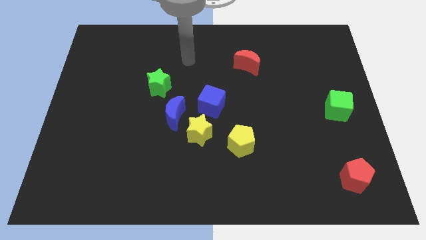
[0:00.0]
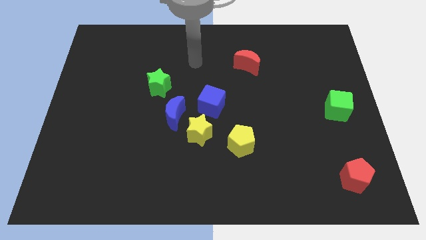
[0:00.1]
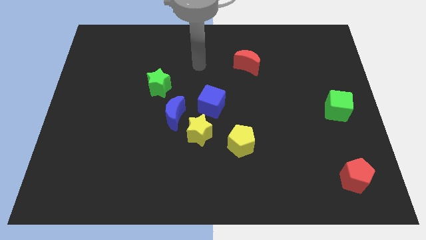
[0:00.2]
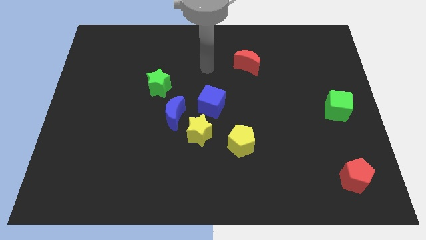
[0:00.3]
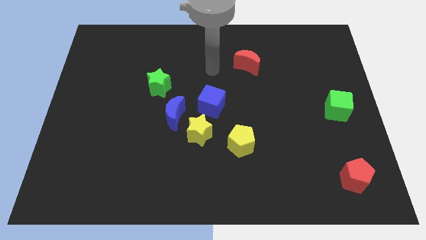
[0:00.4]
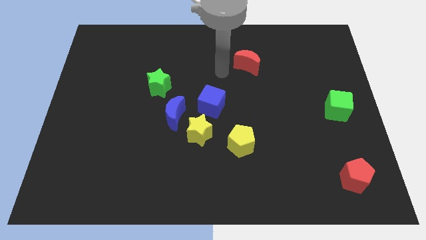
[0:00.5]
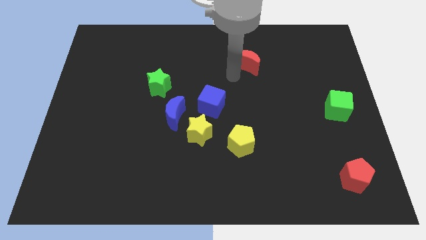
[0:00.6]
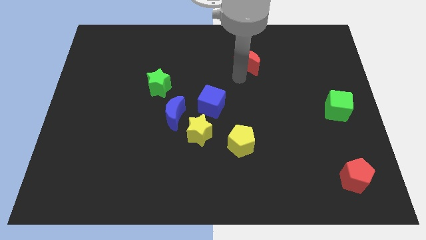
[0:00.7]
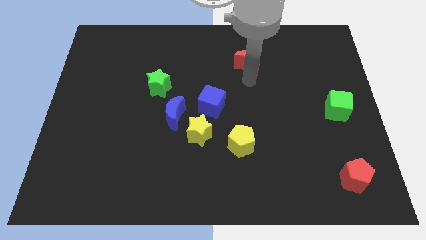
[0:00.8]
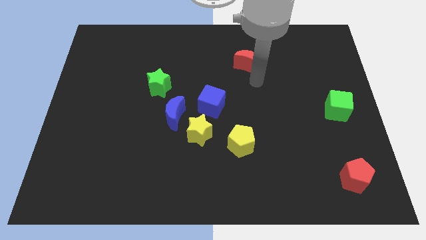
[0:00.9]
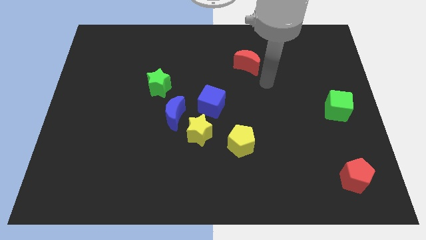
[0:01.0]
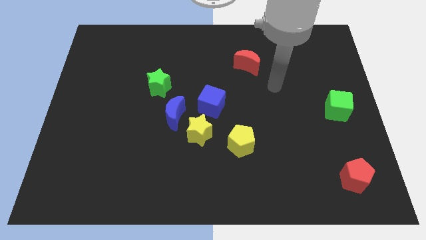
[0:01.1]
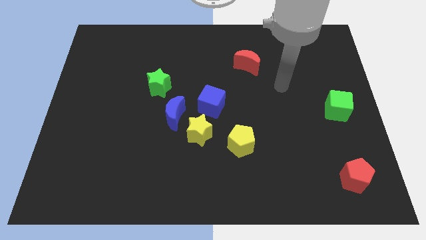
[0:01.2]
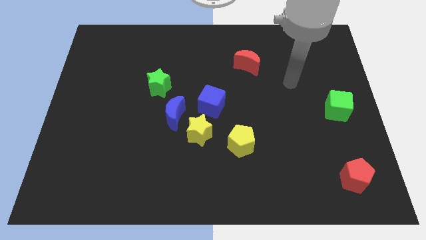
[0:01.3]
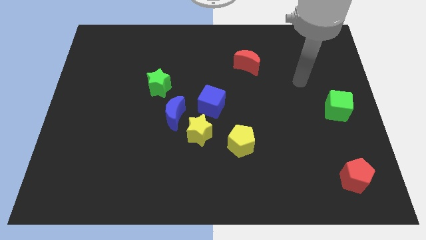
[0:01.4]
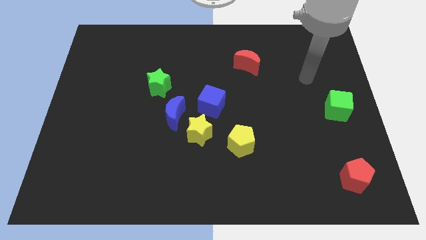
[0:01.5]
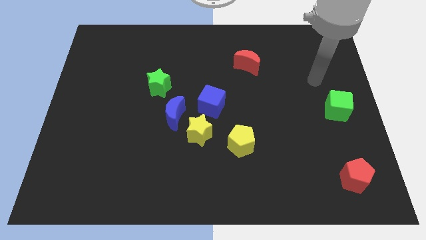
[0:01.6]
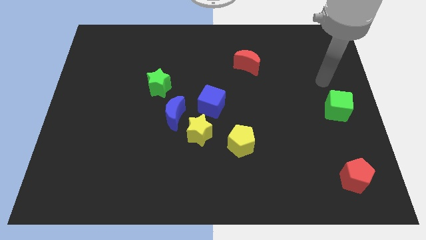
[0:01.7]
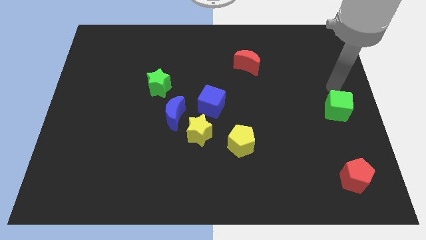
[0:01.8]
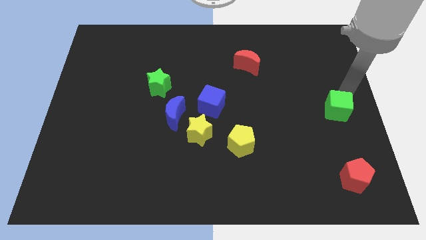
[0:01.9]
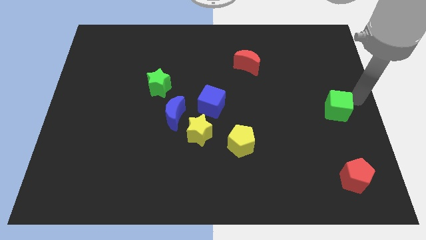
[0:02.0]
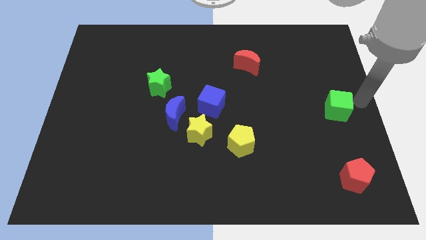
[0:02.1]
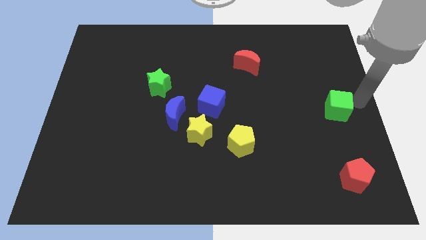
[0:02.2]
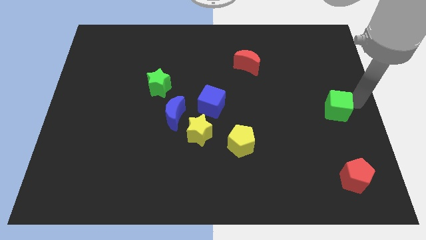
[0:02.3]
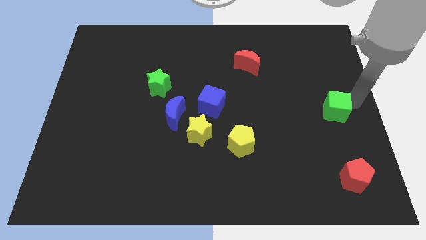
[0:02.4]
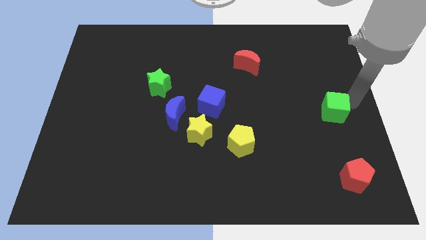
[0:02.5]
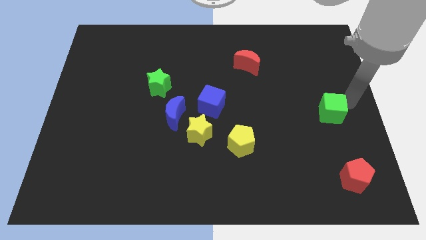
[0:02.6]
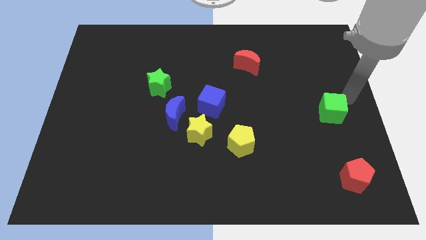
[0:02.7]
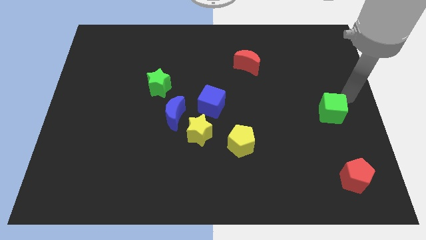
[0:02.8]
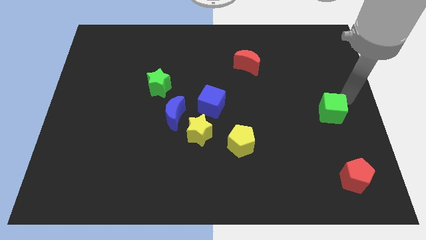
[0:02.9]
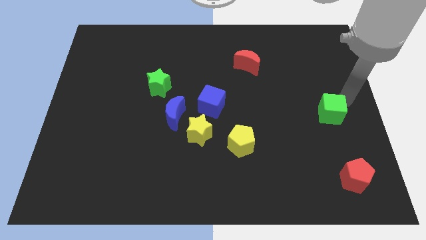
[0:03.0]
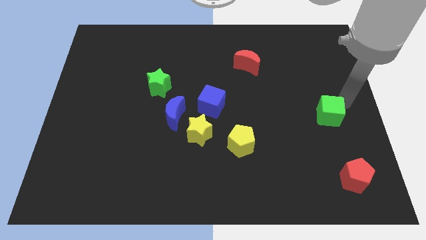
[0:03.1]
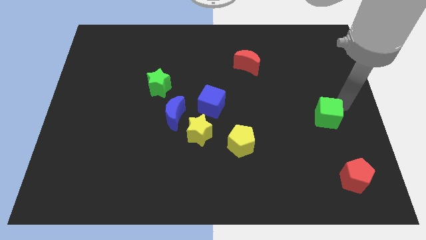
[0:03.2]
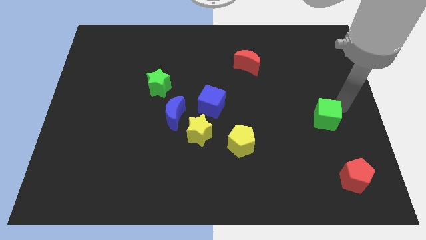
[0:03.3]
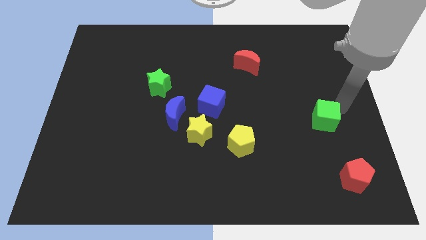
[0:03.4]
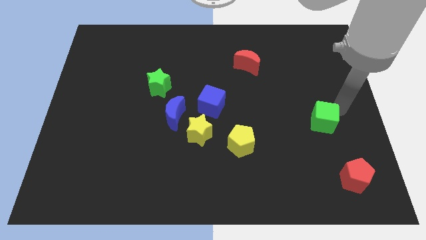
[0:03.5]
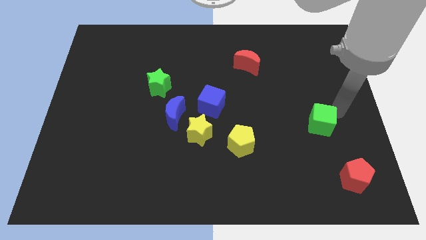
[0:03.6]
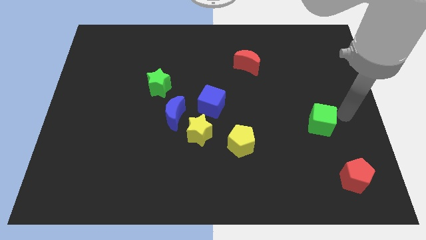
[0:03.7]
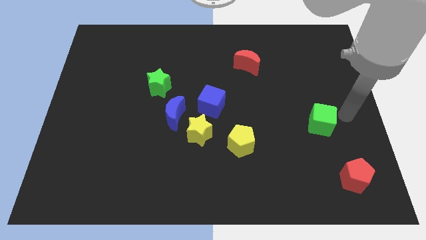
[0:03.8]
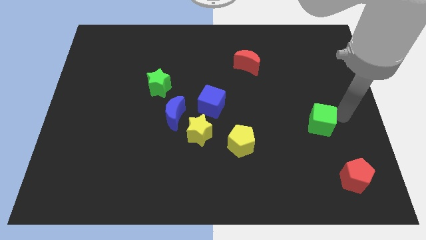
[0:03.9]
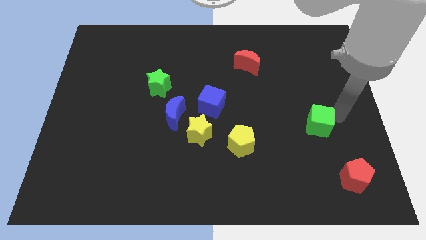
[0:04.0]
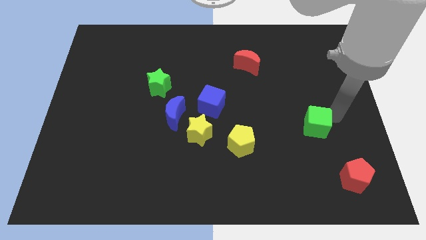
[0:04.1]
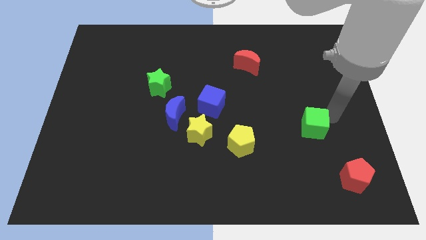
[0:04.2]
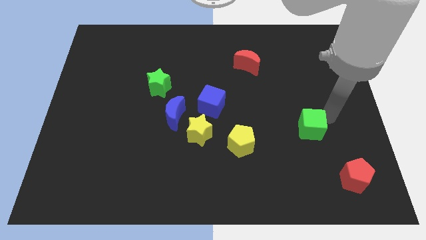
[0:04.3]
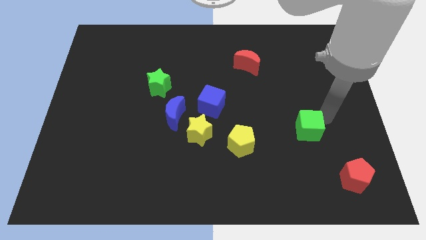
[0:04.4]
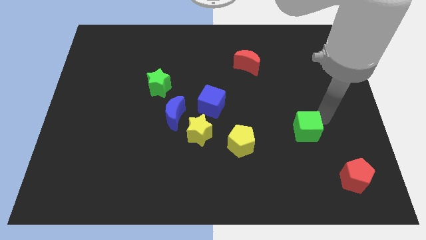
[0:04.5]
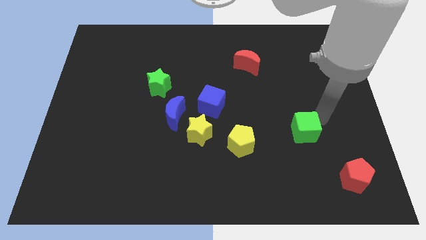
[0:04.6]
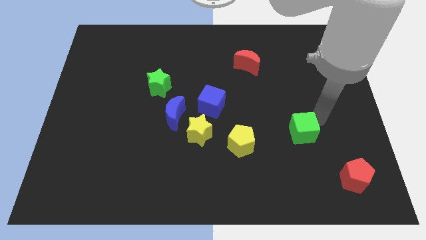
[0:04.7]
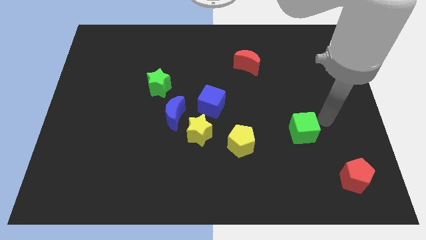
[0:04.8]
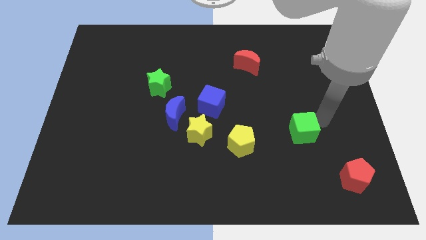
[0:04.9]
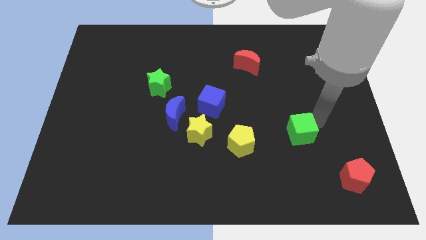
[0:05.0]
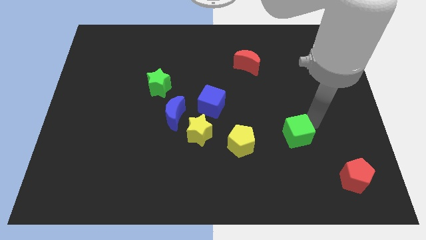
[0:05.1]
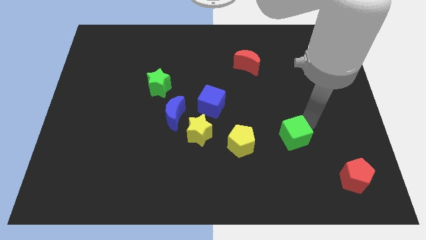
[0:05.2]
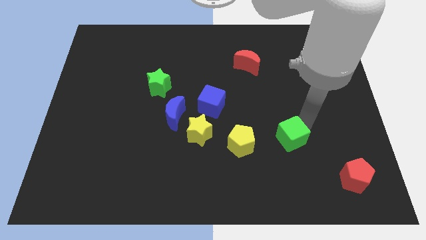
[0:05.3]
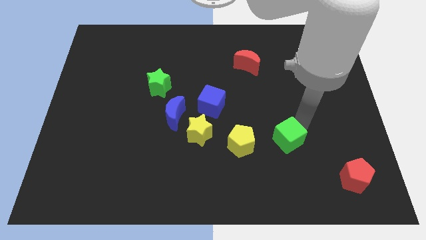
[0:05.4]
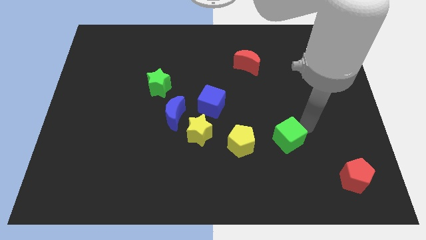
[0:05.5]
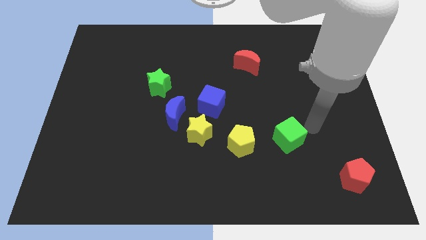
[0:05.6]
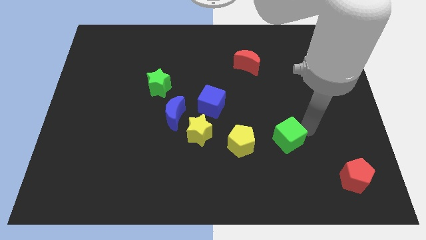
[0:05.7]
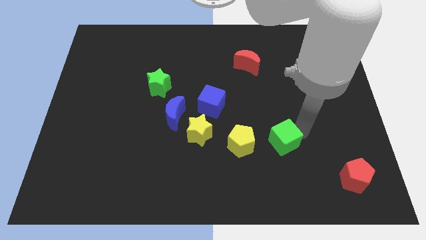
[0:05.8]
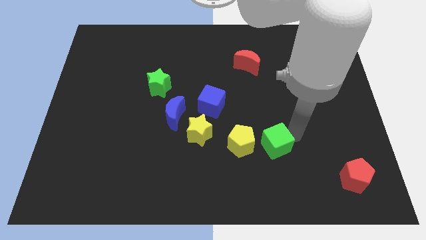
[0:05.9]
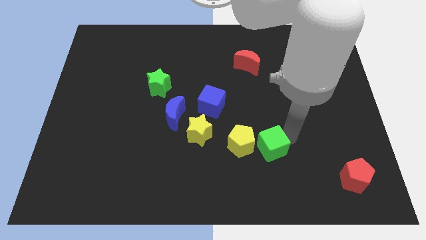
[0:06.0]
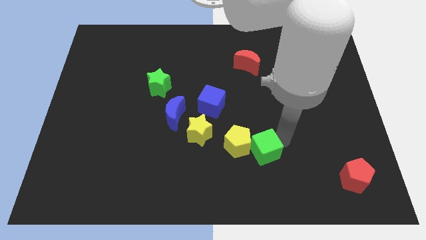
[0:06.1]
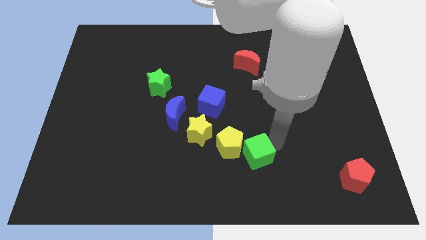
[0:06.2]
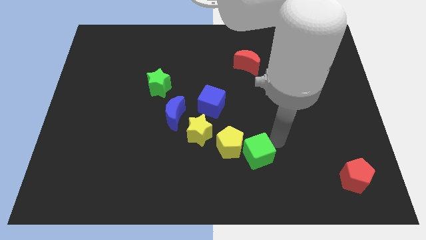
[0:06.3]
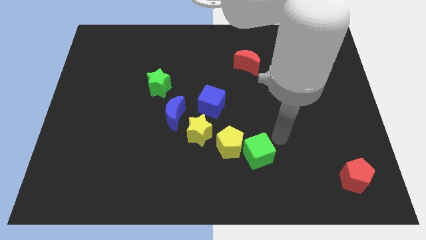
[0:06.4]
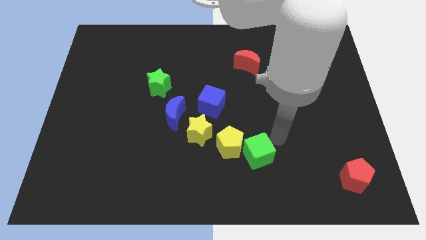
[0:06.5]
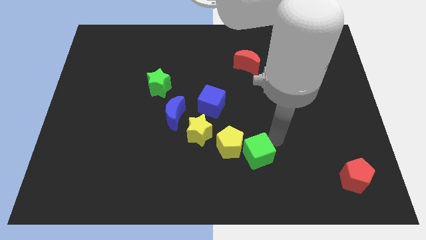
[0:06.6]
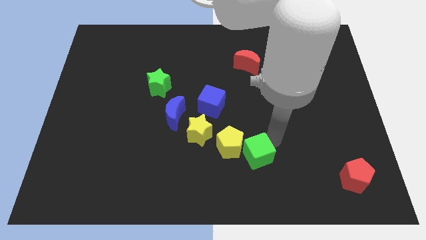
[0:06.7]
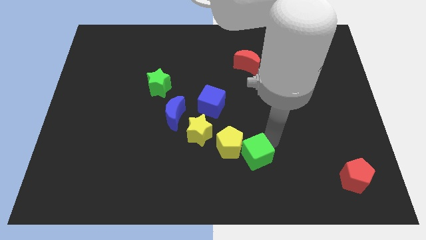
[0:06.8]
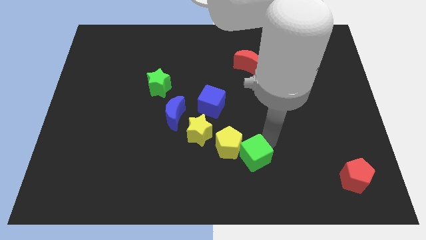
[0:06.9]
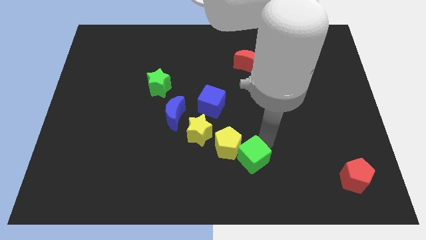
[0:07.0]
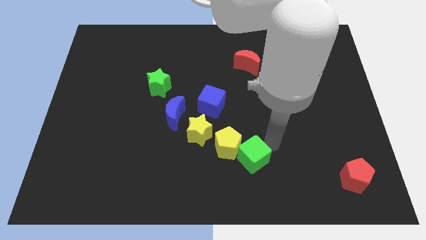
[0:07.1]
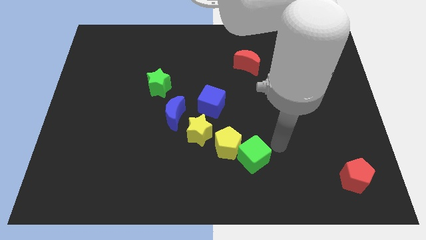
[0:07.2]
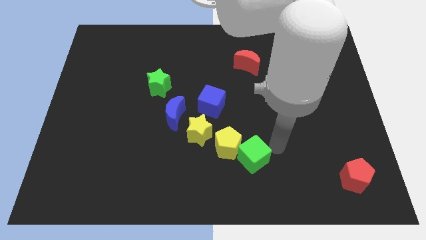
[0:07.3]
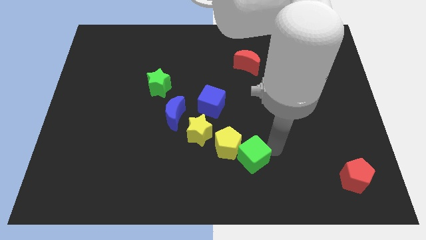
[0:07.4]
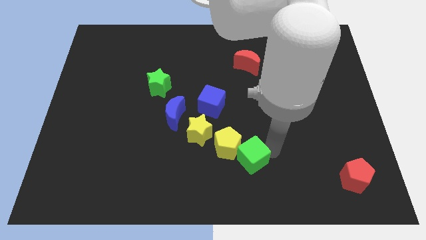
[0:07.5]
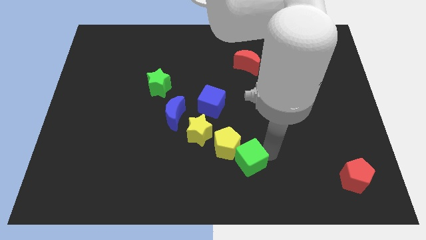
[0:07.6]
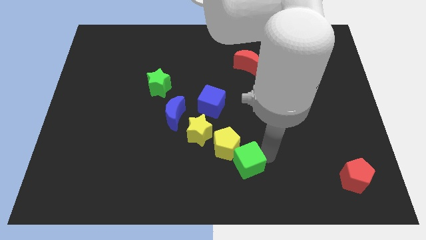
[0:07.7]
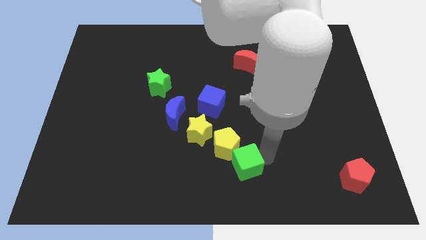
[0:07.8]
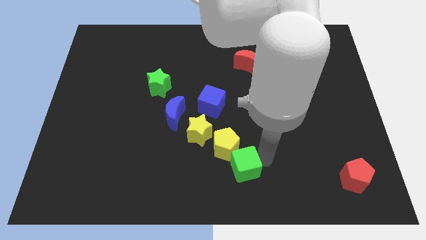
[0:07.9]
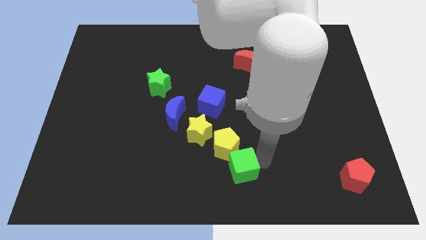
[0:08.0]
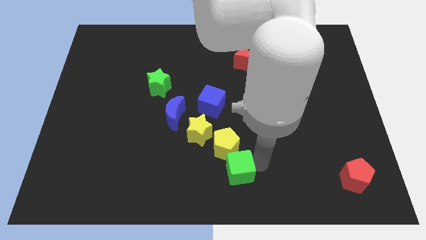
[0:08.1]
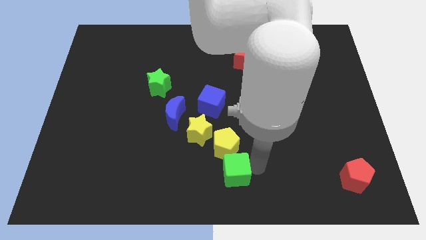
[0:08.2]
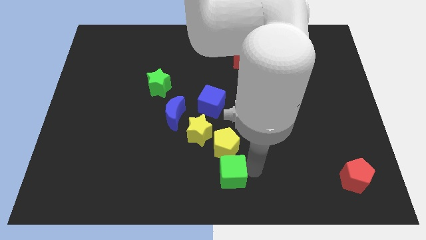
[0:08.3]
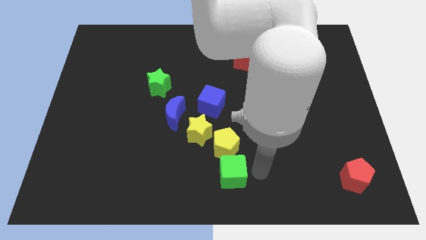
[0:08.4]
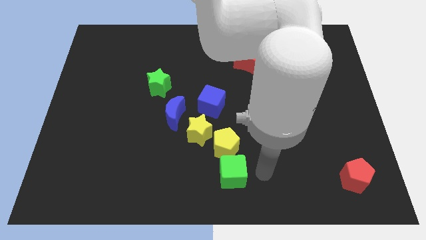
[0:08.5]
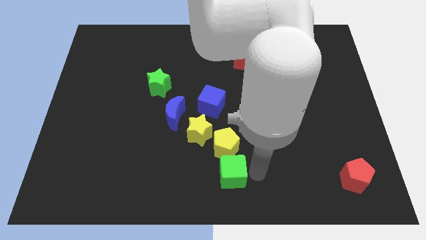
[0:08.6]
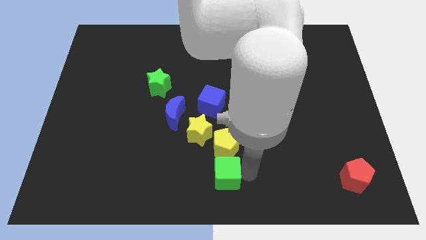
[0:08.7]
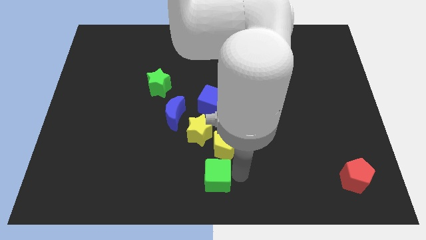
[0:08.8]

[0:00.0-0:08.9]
put the green cube to the bottom side of the yellow star
